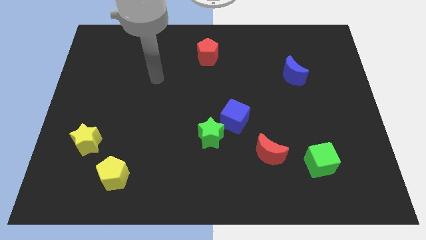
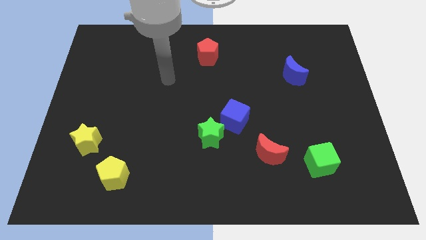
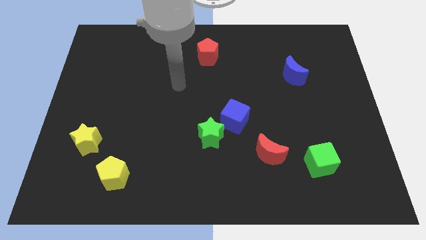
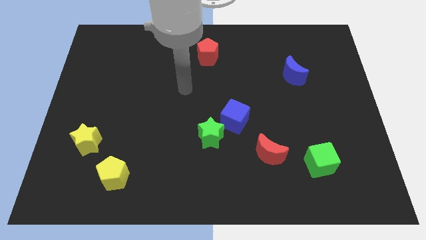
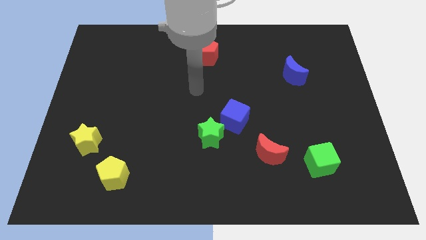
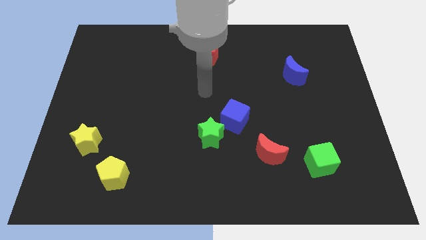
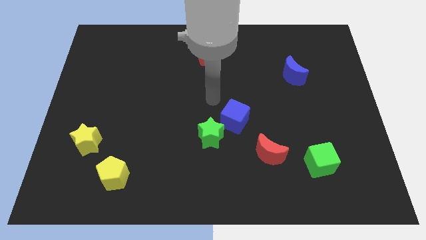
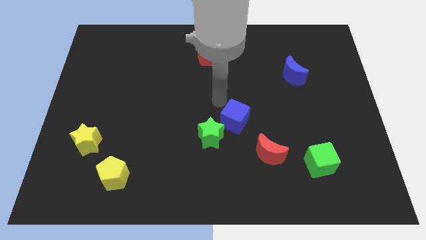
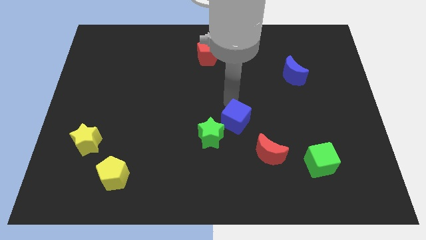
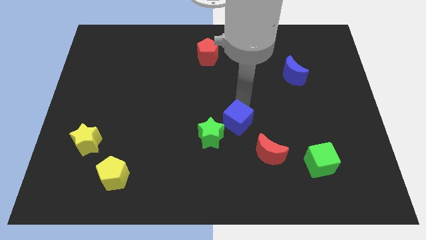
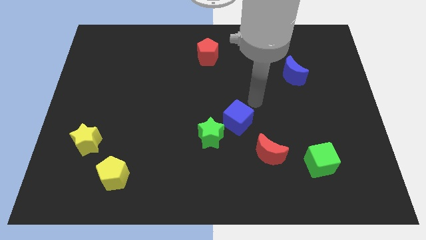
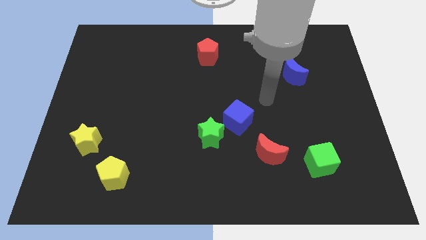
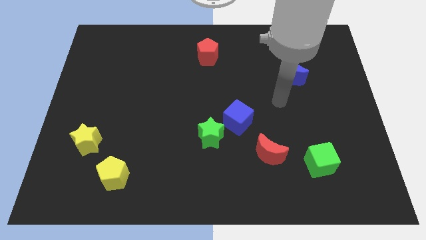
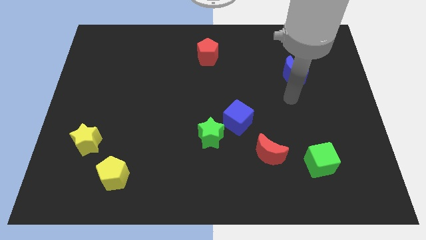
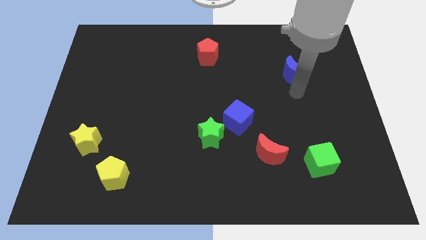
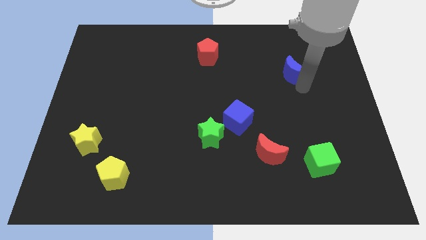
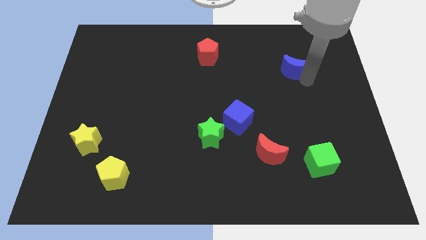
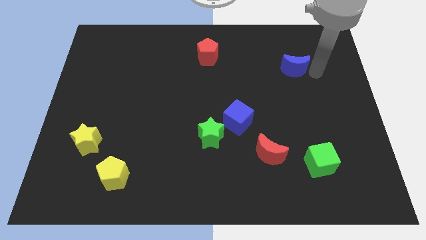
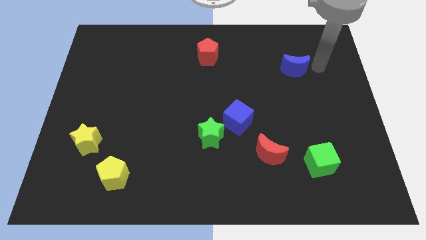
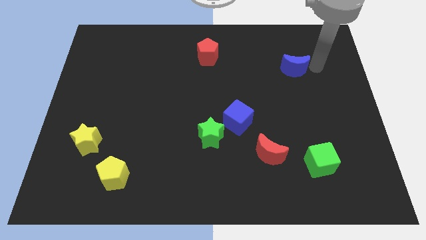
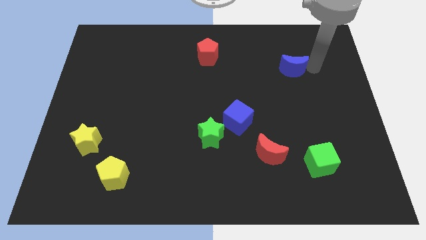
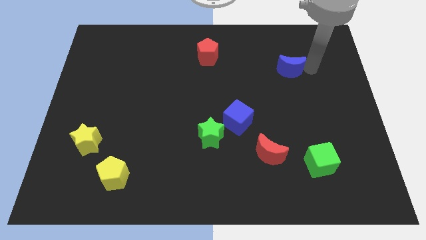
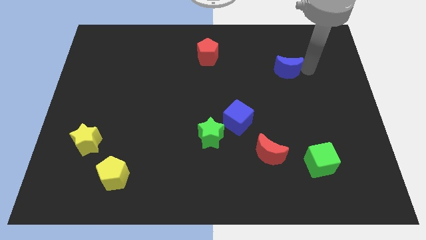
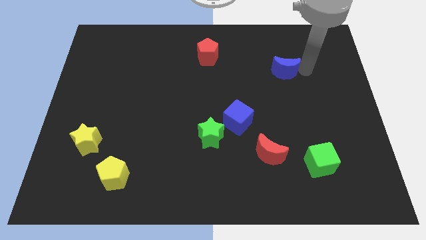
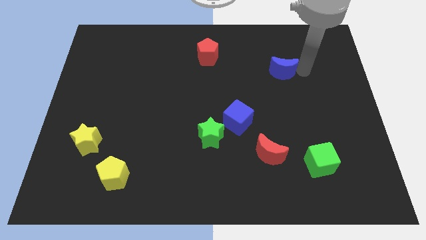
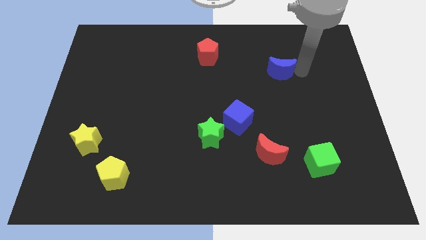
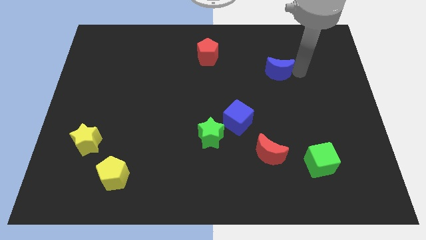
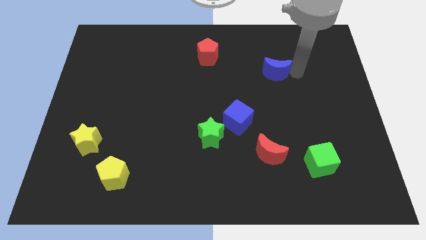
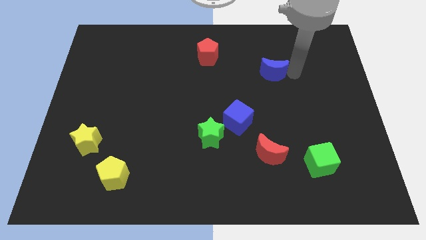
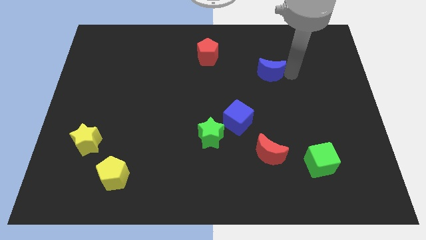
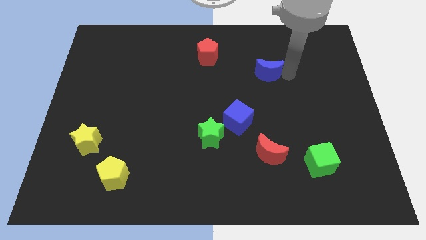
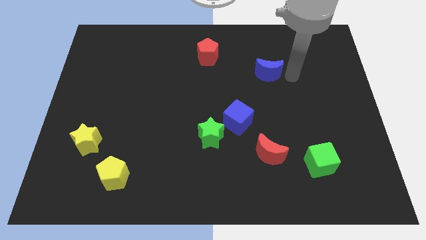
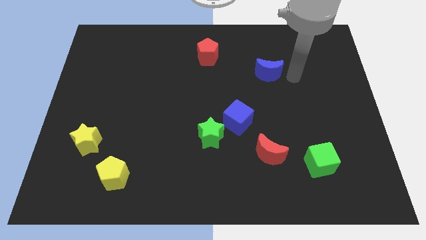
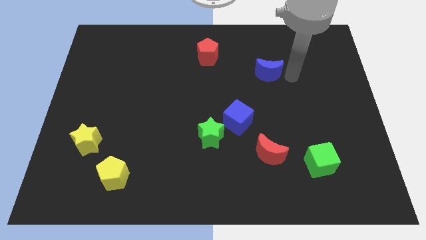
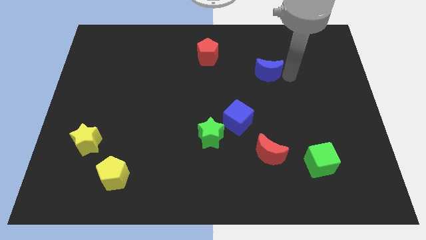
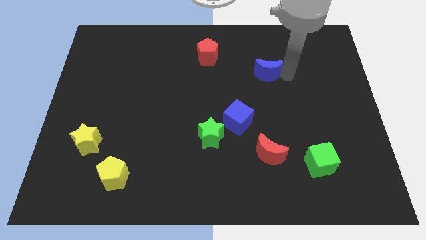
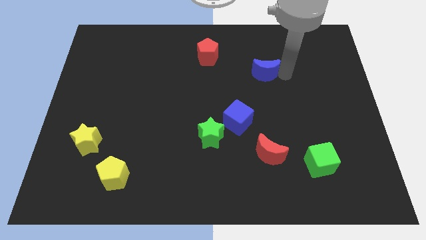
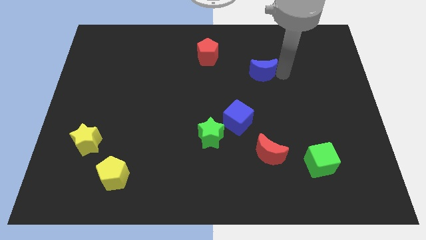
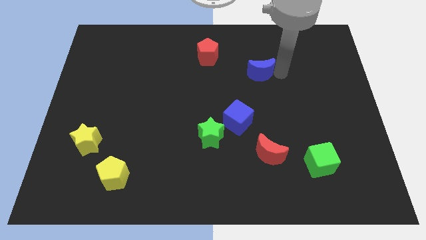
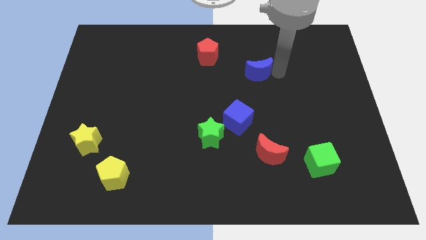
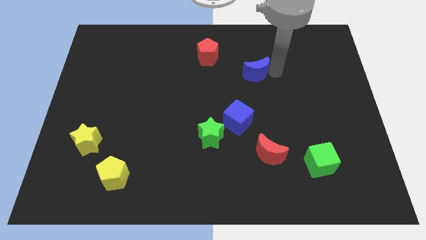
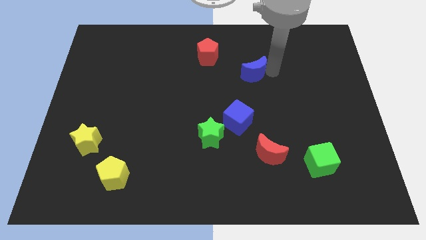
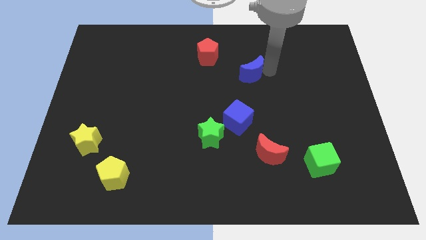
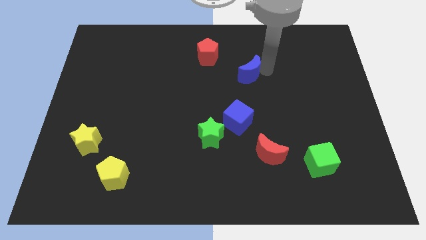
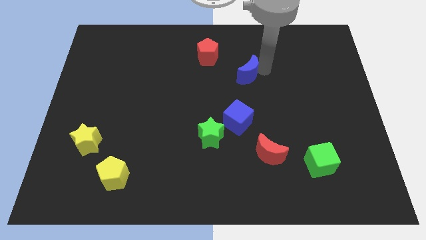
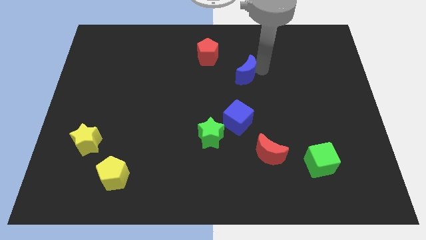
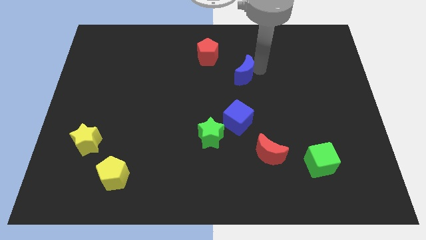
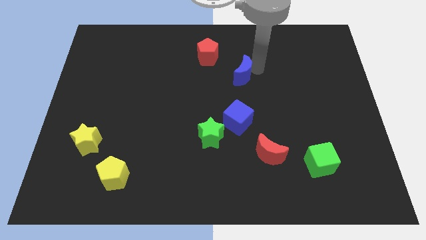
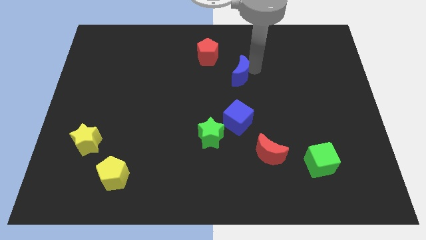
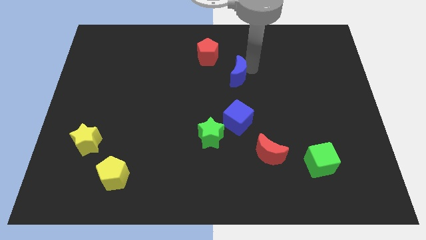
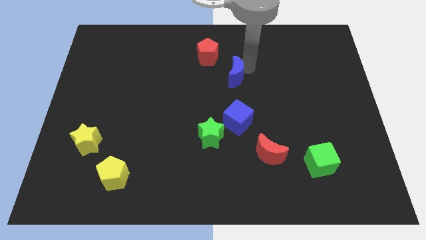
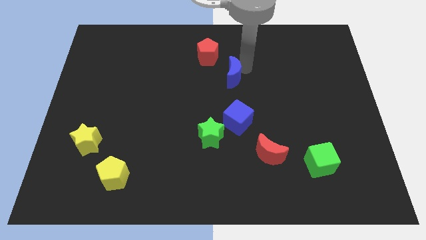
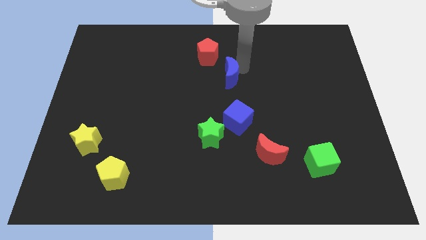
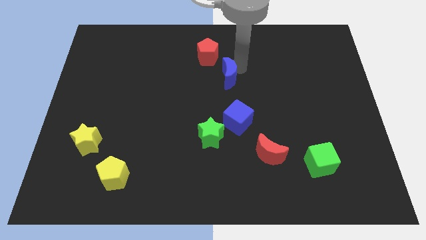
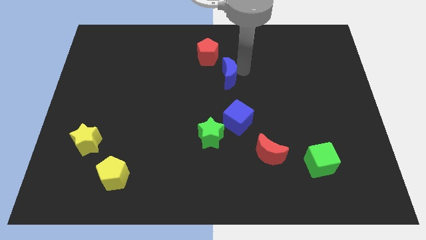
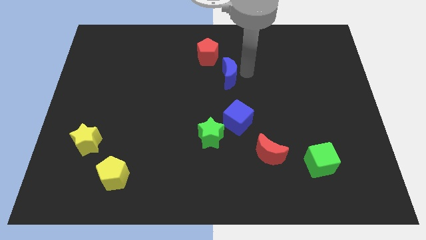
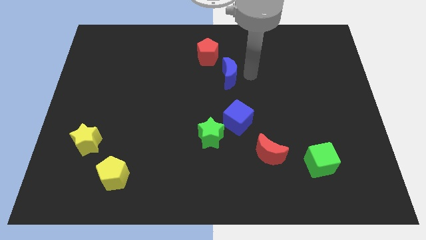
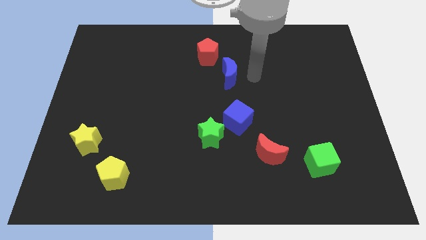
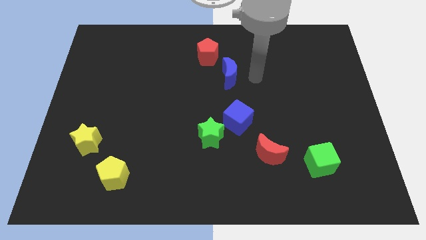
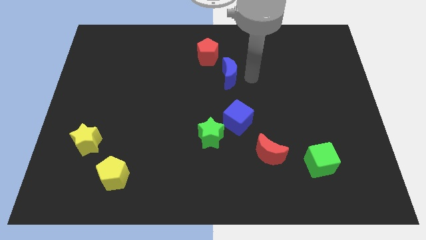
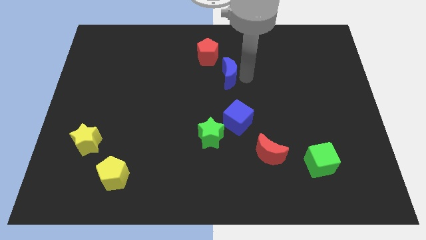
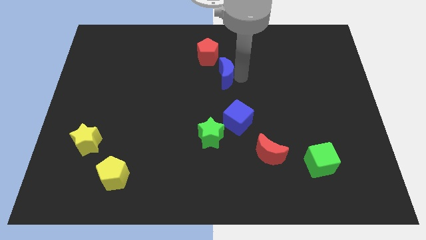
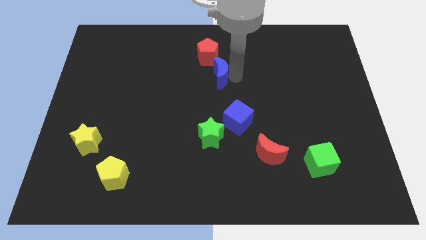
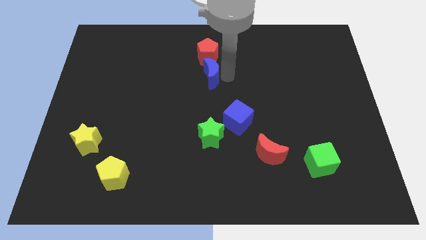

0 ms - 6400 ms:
push the blue moon to the left

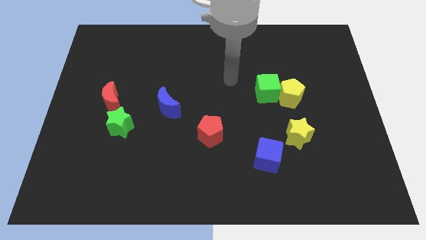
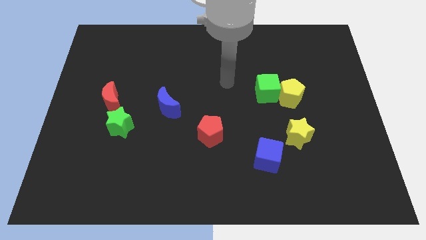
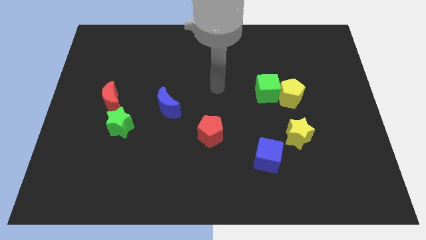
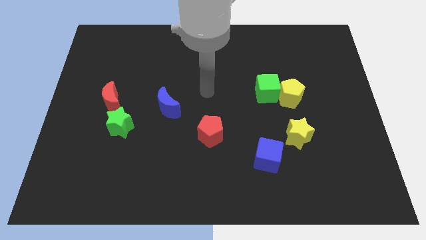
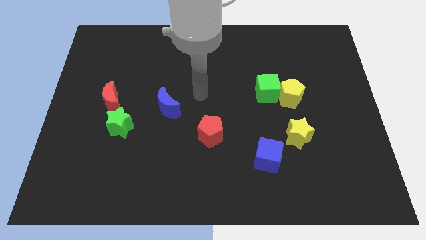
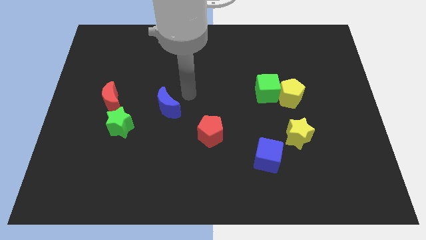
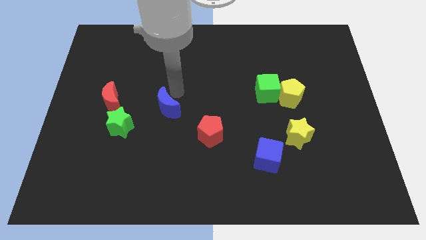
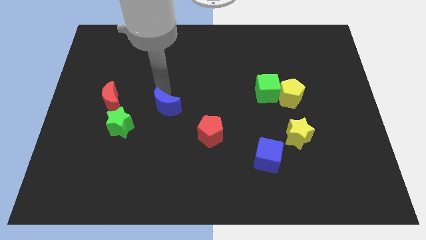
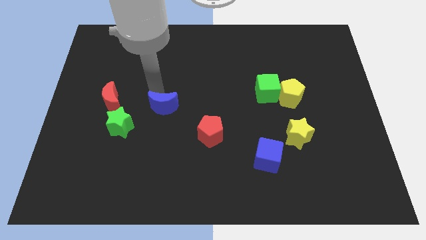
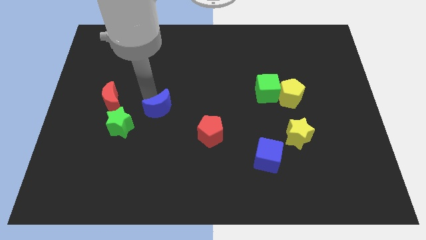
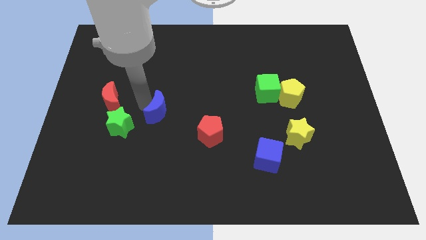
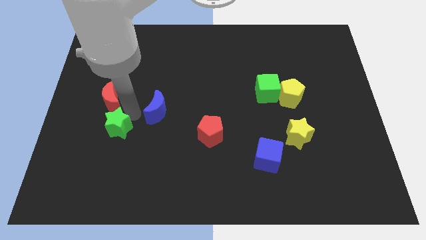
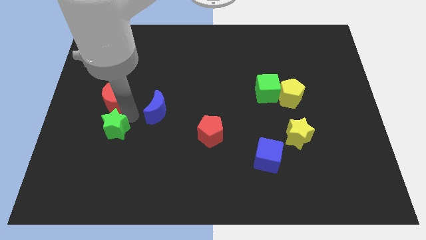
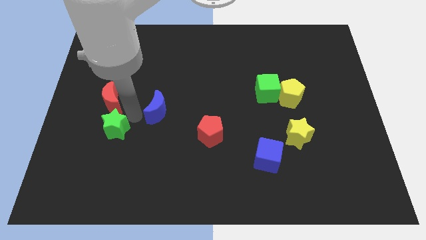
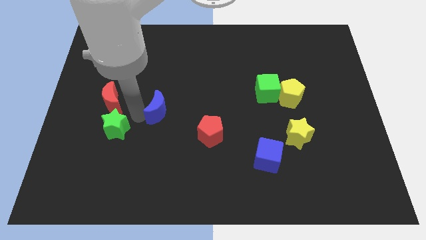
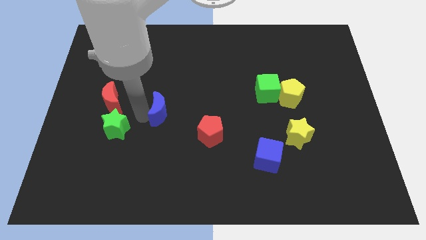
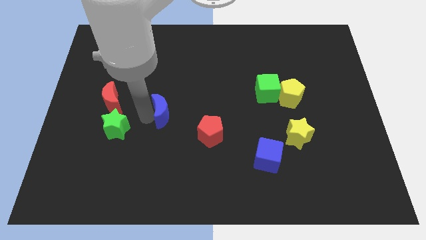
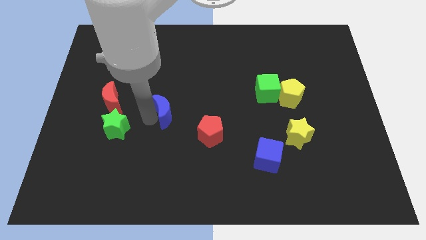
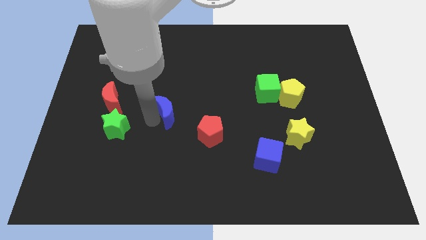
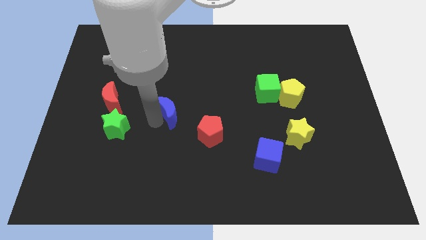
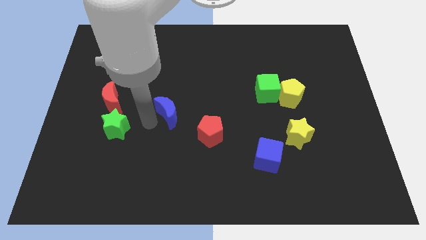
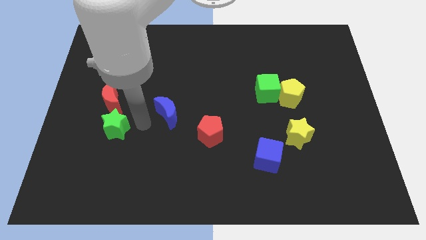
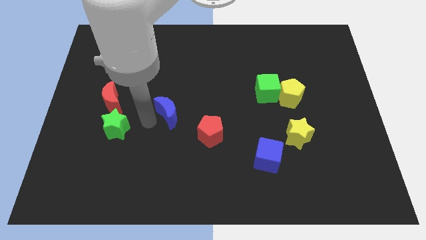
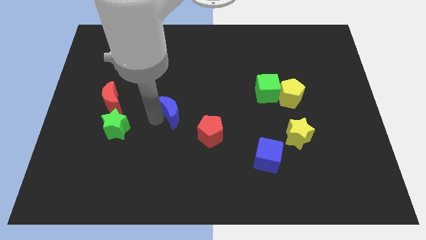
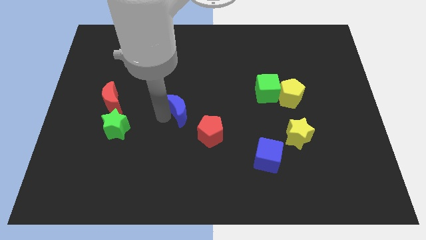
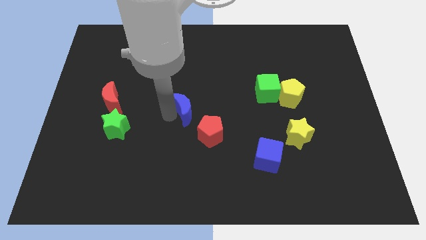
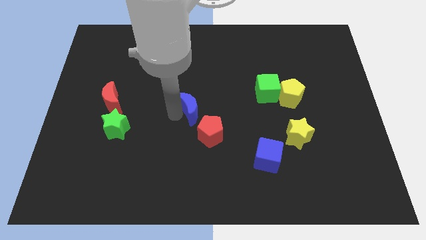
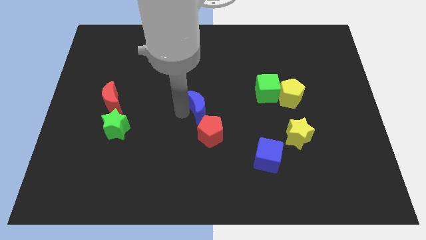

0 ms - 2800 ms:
slightly push the blue moon to the right
